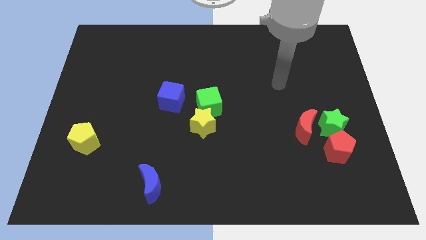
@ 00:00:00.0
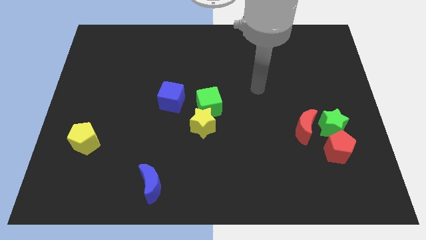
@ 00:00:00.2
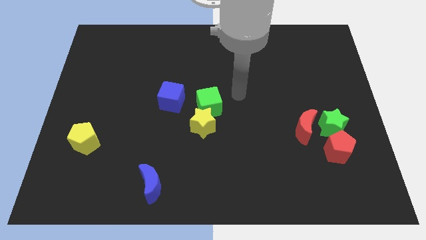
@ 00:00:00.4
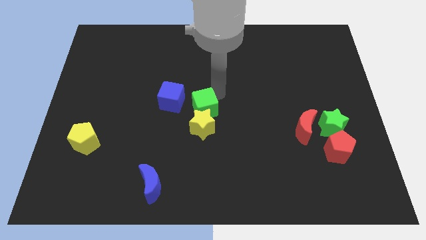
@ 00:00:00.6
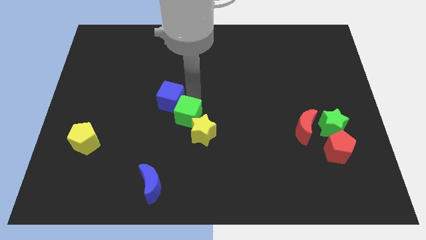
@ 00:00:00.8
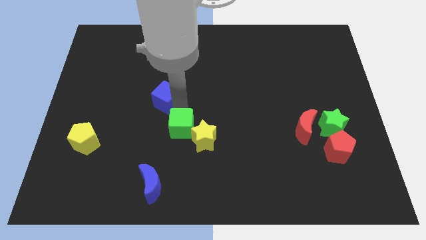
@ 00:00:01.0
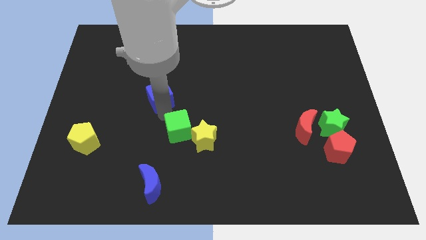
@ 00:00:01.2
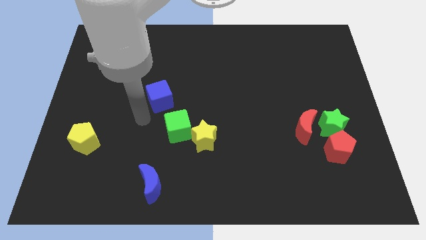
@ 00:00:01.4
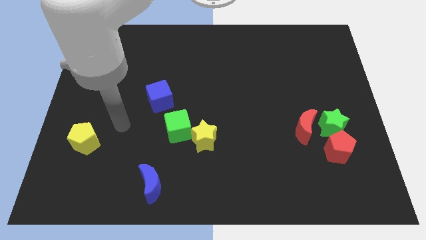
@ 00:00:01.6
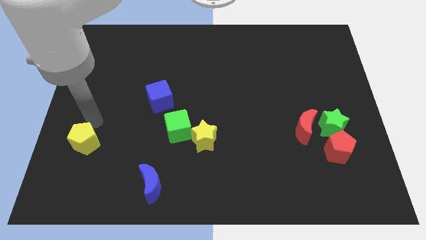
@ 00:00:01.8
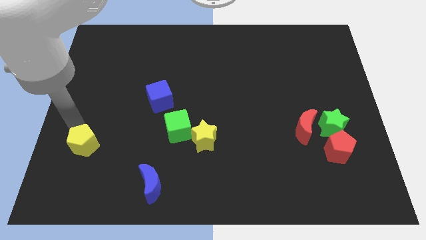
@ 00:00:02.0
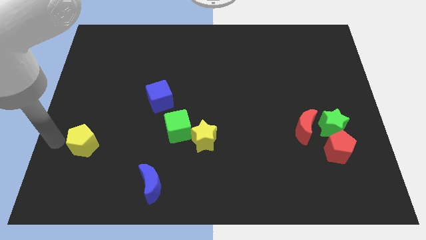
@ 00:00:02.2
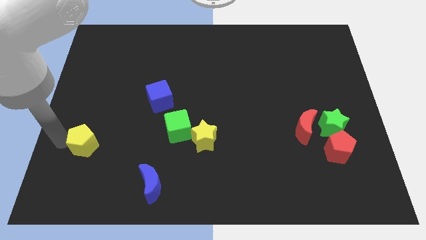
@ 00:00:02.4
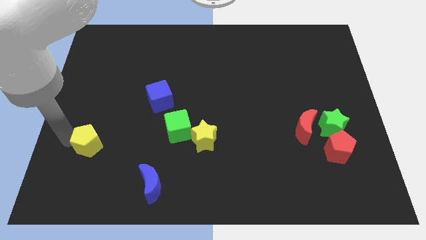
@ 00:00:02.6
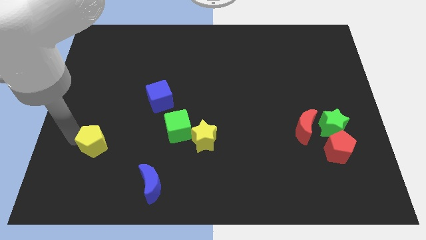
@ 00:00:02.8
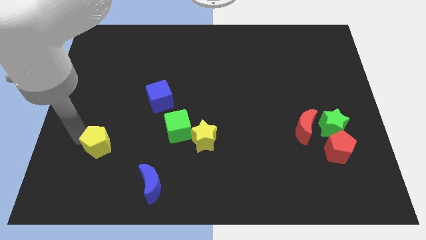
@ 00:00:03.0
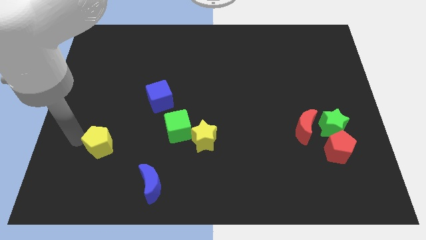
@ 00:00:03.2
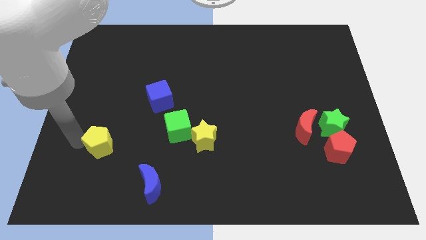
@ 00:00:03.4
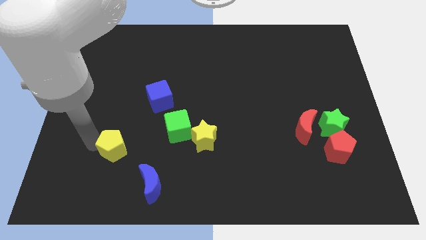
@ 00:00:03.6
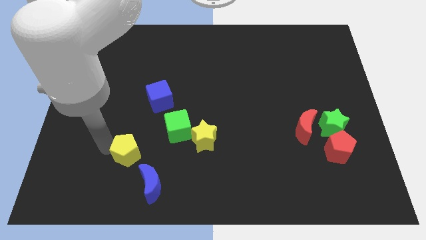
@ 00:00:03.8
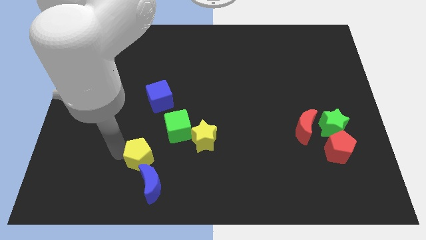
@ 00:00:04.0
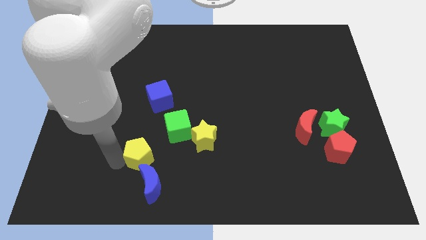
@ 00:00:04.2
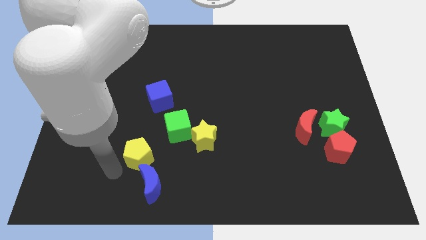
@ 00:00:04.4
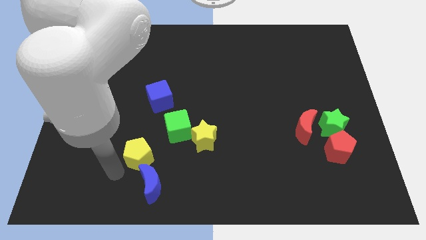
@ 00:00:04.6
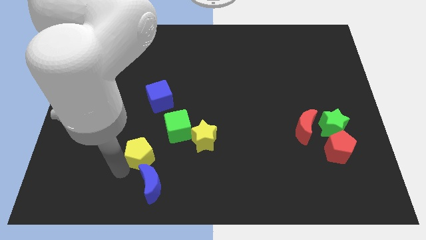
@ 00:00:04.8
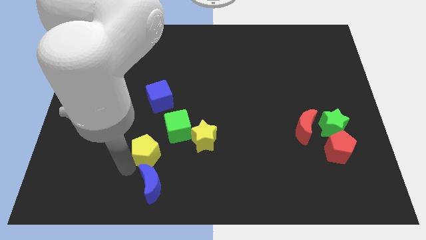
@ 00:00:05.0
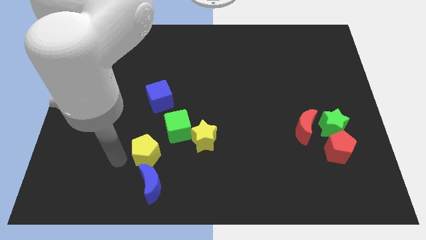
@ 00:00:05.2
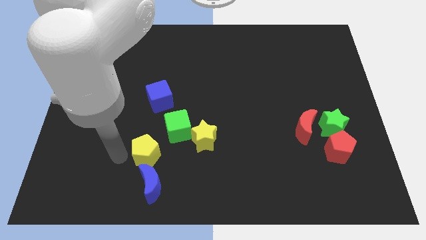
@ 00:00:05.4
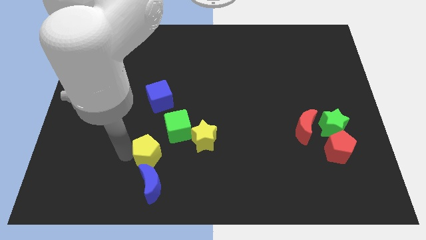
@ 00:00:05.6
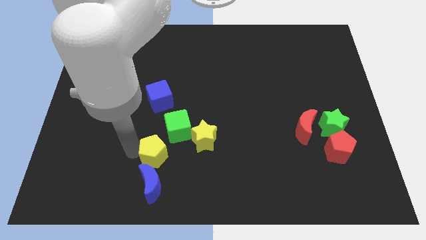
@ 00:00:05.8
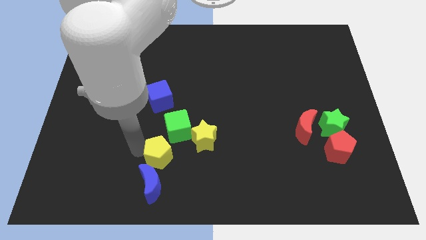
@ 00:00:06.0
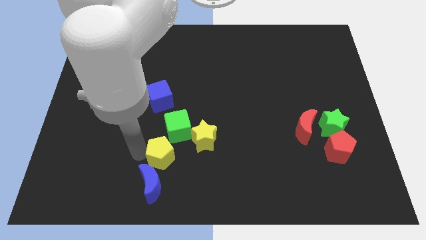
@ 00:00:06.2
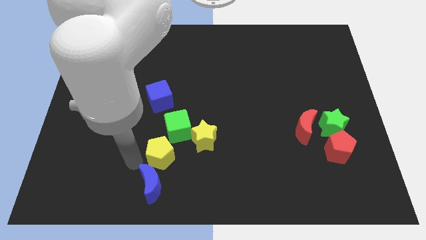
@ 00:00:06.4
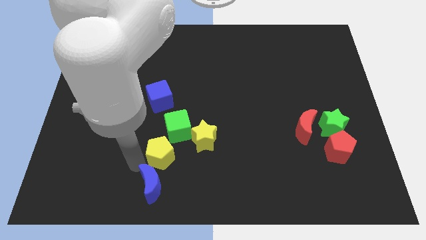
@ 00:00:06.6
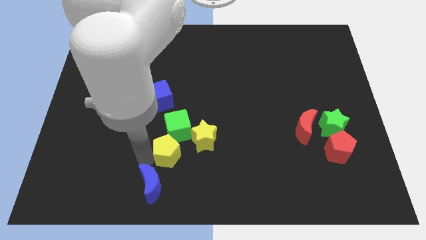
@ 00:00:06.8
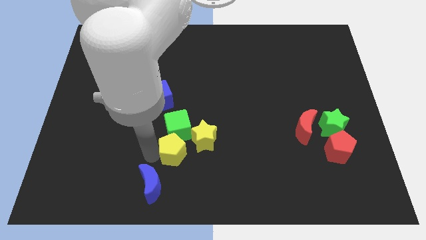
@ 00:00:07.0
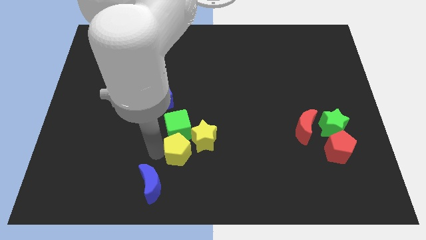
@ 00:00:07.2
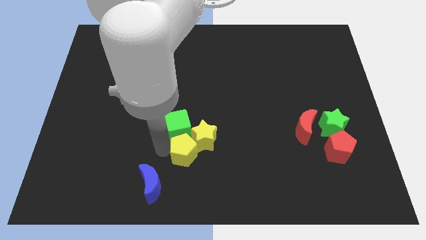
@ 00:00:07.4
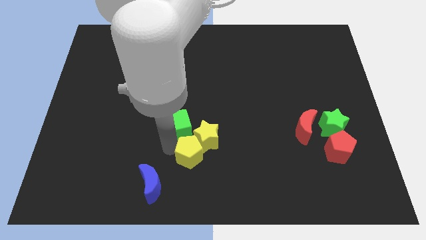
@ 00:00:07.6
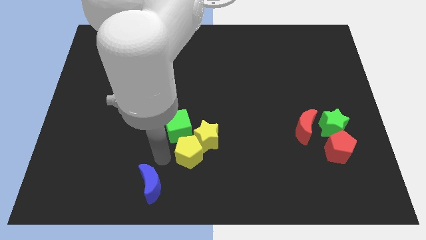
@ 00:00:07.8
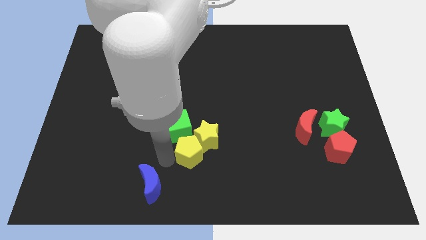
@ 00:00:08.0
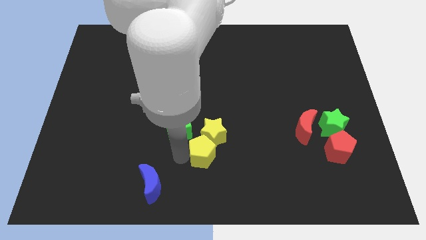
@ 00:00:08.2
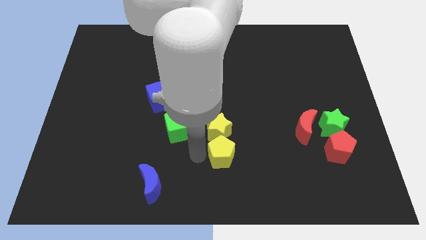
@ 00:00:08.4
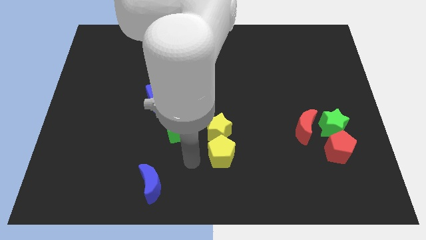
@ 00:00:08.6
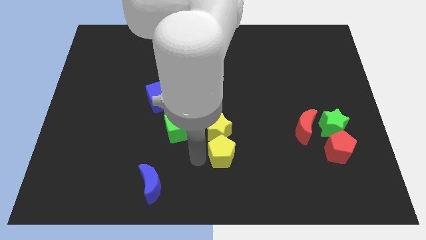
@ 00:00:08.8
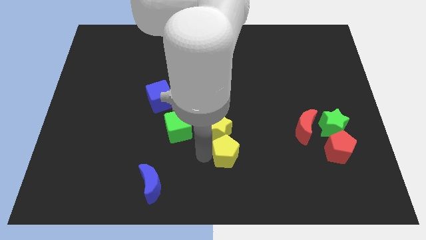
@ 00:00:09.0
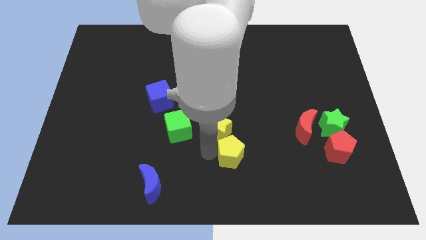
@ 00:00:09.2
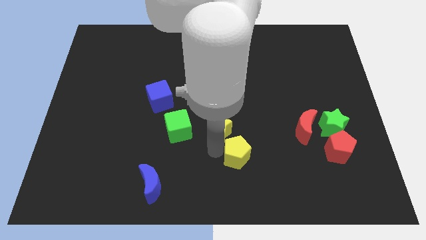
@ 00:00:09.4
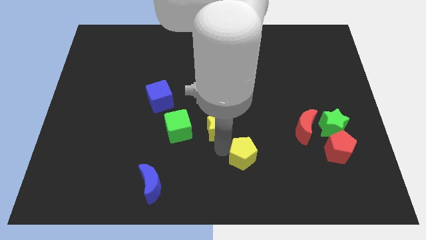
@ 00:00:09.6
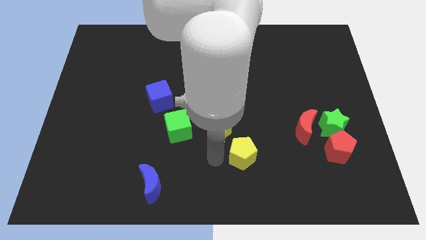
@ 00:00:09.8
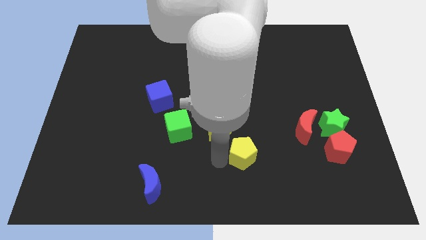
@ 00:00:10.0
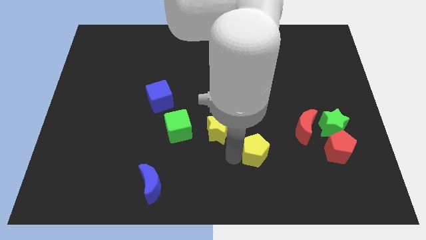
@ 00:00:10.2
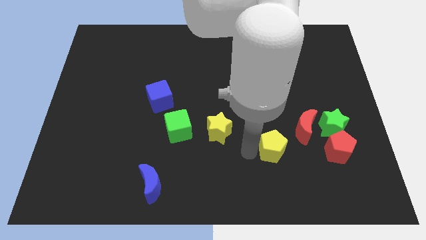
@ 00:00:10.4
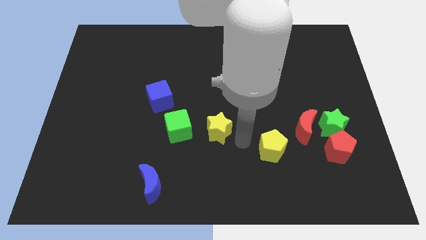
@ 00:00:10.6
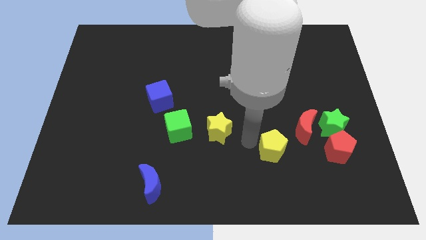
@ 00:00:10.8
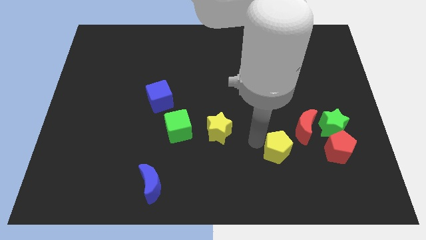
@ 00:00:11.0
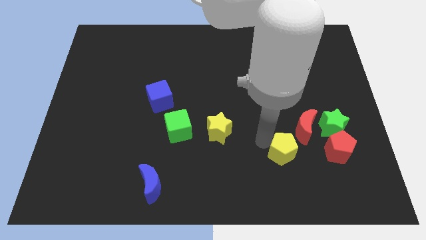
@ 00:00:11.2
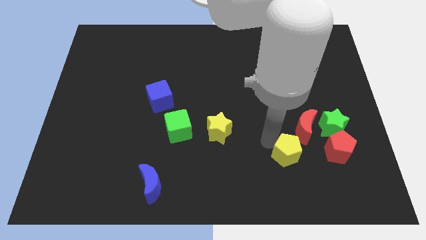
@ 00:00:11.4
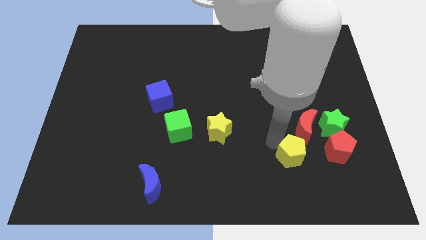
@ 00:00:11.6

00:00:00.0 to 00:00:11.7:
slide the yellow pentagon diagonally down and to the left of the green star

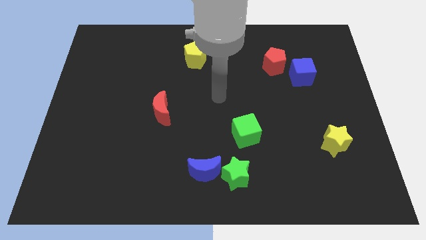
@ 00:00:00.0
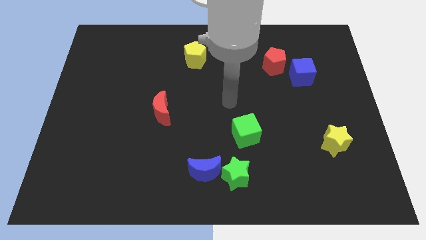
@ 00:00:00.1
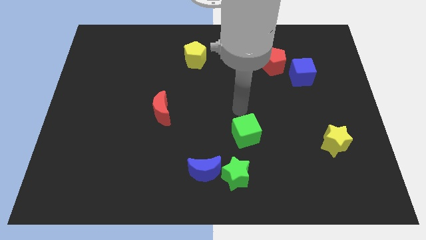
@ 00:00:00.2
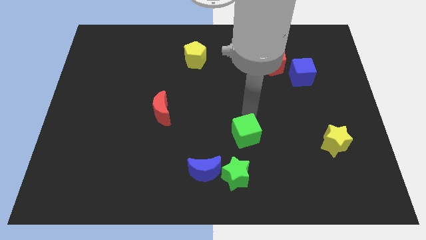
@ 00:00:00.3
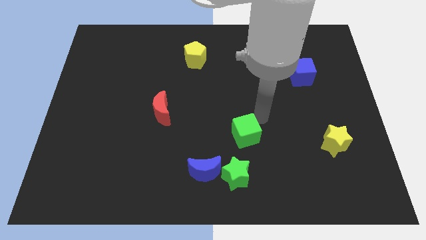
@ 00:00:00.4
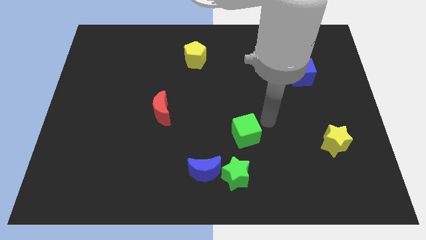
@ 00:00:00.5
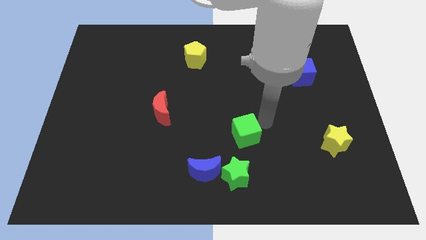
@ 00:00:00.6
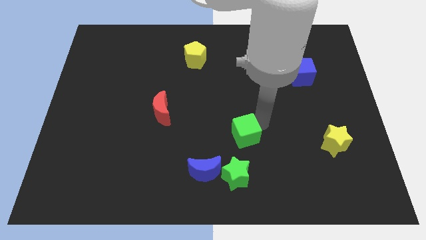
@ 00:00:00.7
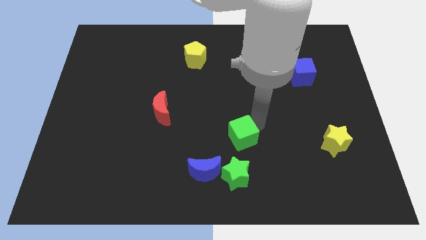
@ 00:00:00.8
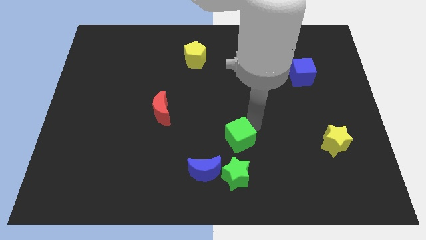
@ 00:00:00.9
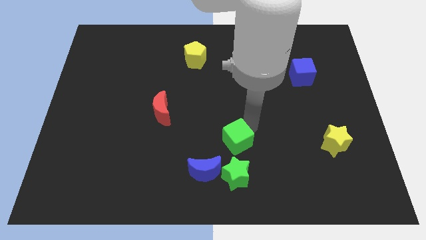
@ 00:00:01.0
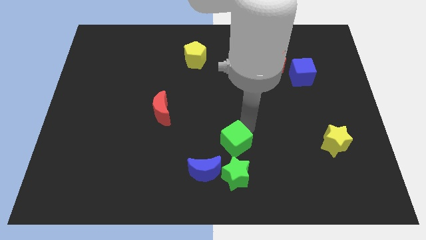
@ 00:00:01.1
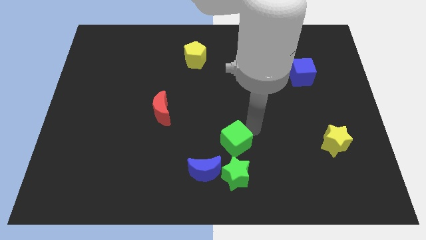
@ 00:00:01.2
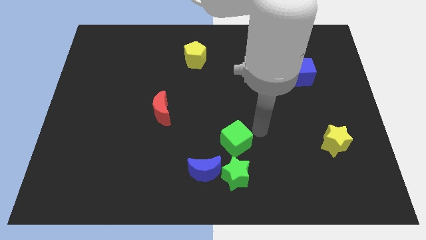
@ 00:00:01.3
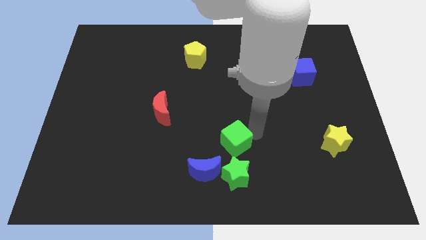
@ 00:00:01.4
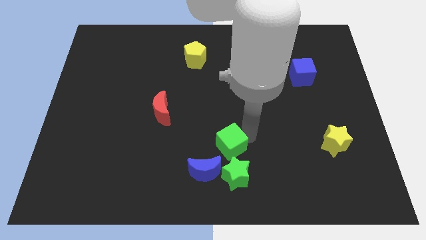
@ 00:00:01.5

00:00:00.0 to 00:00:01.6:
push the green cube to the top left of the green star
